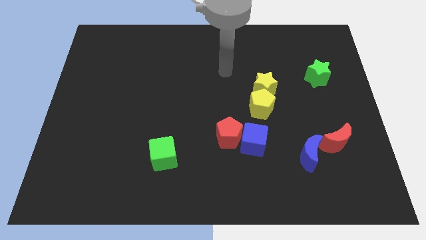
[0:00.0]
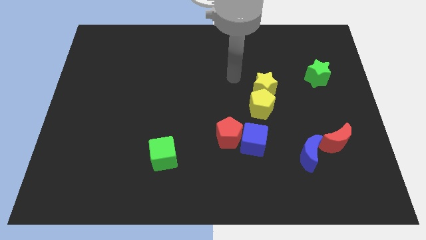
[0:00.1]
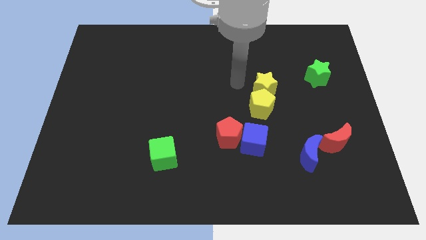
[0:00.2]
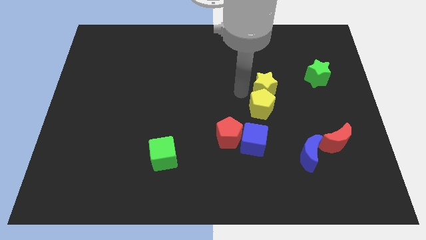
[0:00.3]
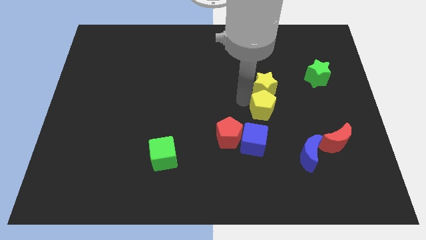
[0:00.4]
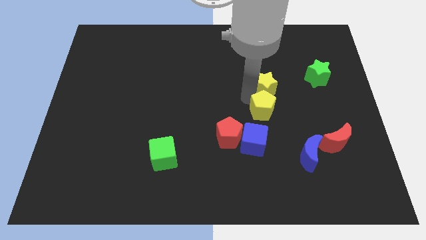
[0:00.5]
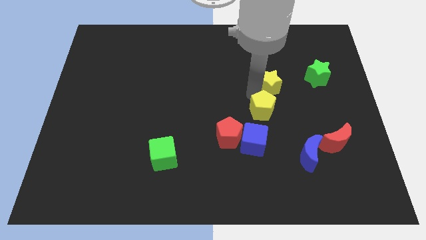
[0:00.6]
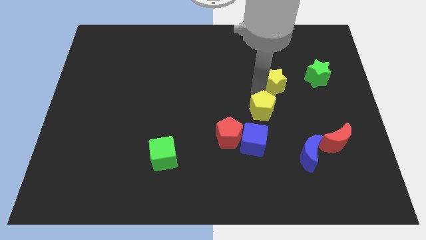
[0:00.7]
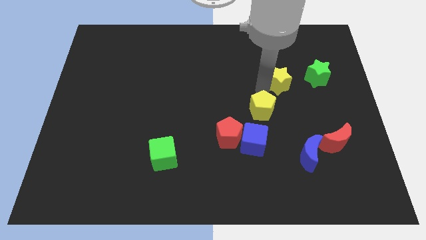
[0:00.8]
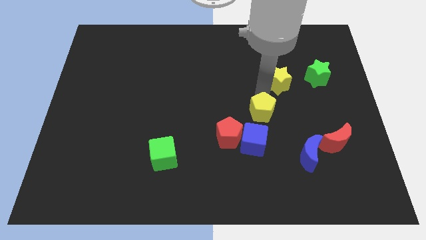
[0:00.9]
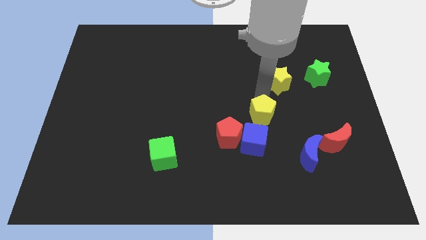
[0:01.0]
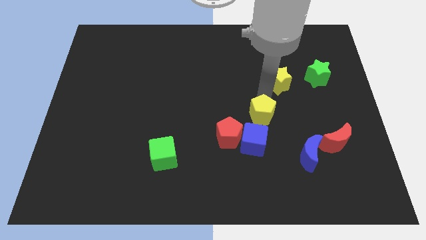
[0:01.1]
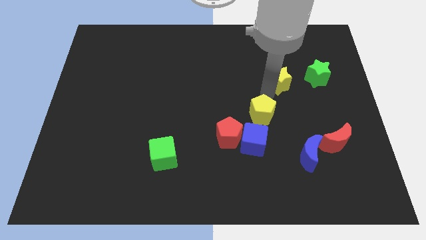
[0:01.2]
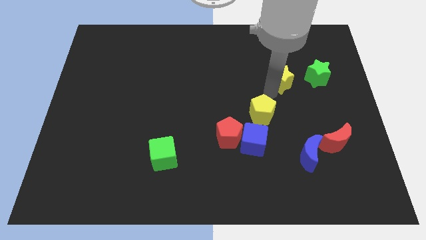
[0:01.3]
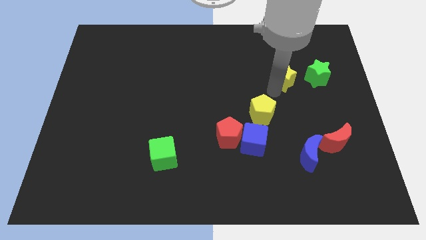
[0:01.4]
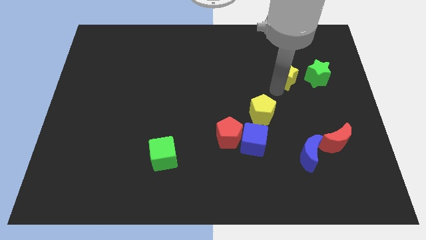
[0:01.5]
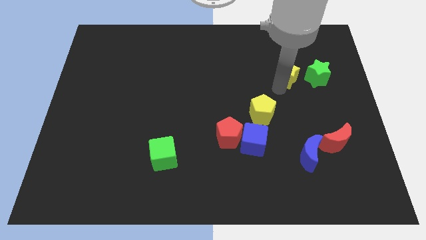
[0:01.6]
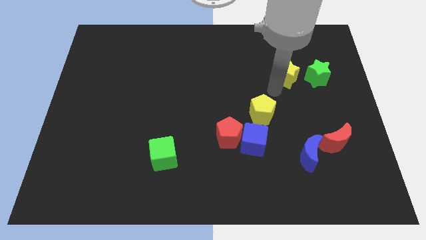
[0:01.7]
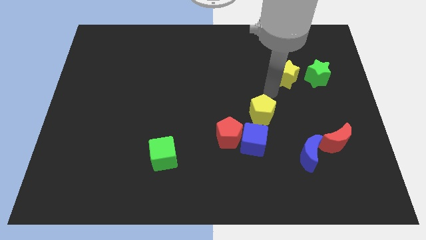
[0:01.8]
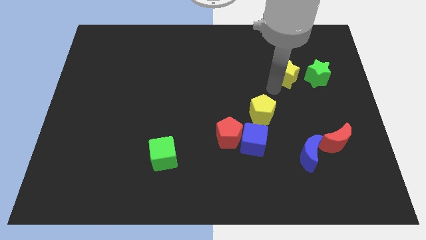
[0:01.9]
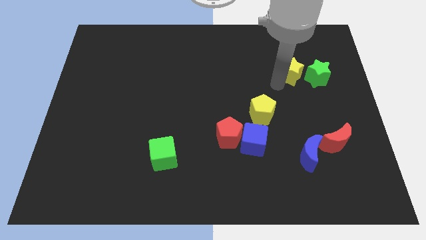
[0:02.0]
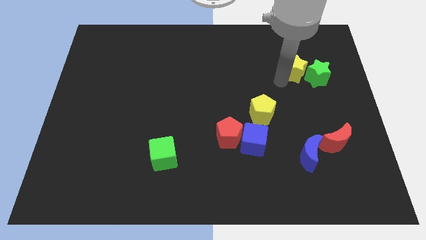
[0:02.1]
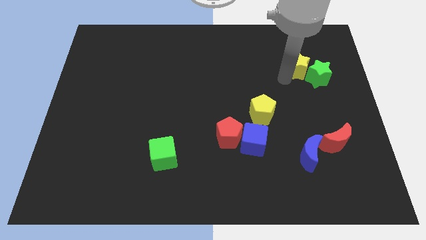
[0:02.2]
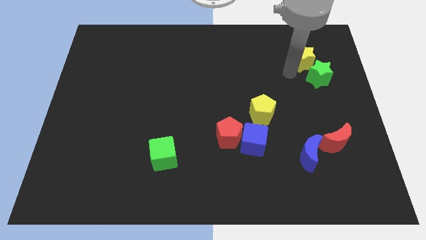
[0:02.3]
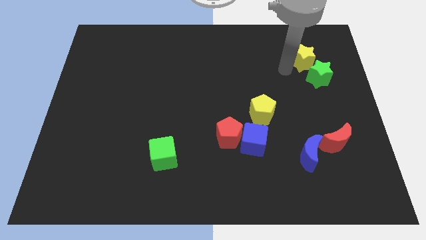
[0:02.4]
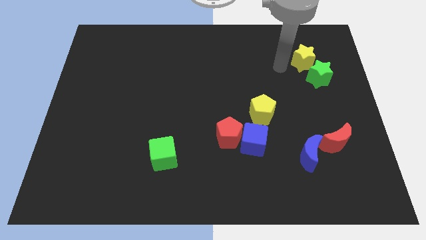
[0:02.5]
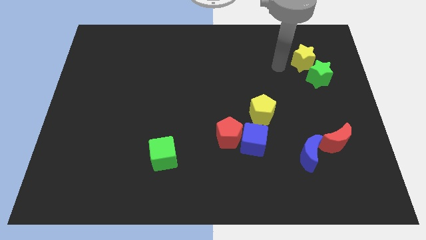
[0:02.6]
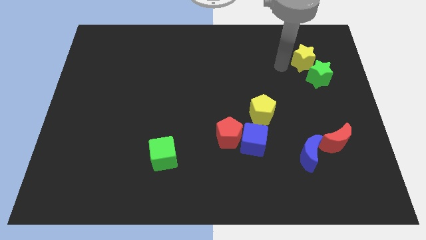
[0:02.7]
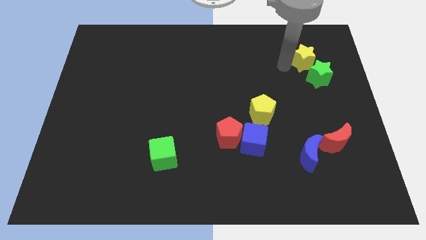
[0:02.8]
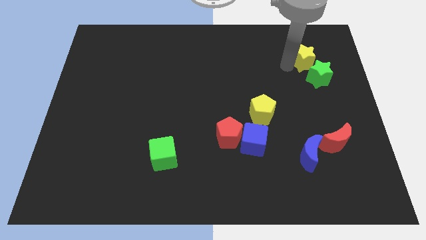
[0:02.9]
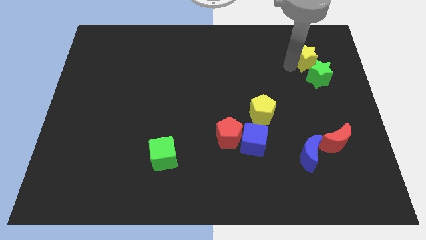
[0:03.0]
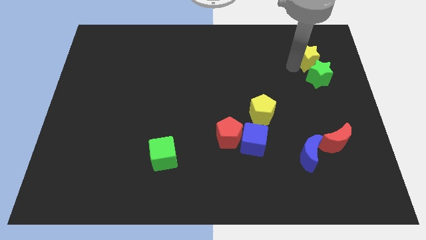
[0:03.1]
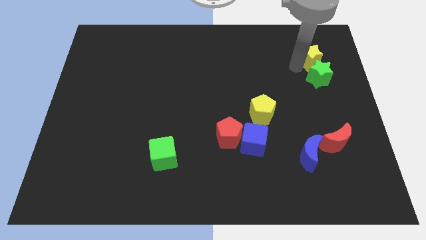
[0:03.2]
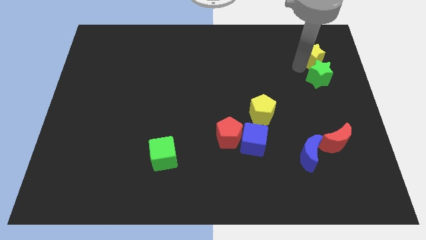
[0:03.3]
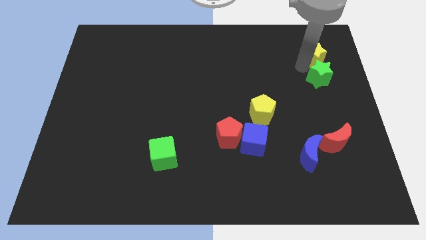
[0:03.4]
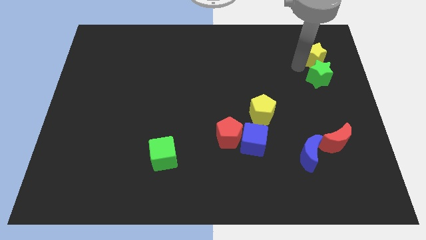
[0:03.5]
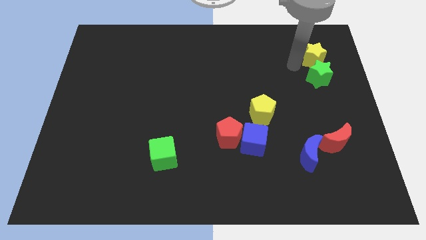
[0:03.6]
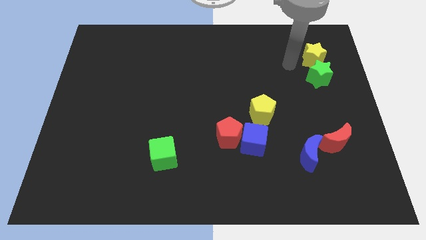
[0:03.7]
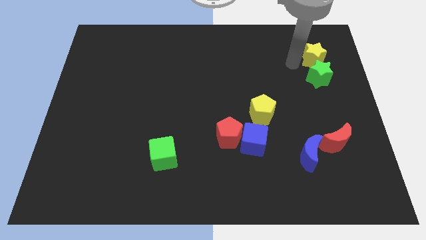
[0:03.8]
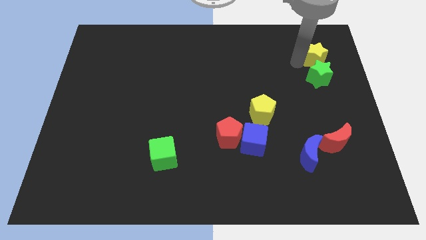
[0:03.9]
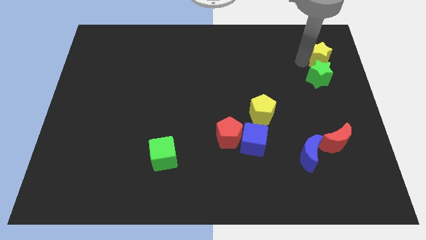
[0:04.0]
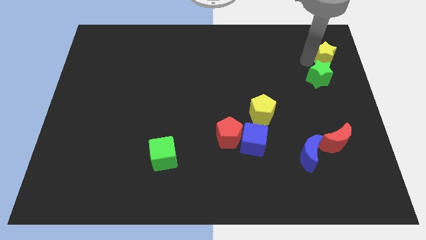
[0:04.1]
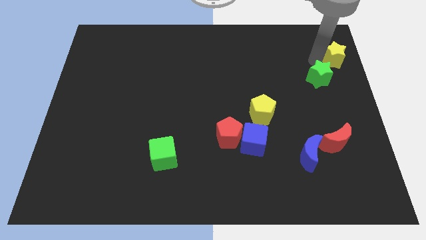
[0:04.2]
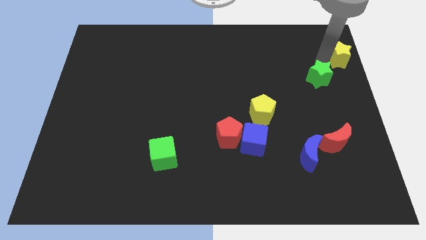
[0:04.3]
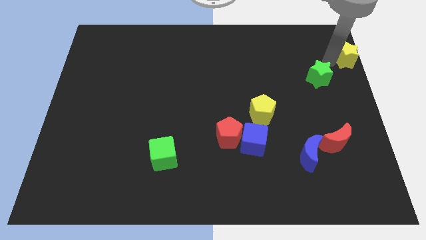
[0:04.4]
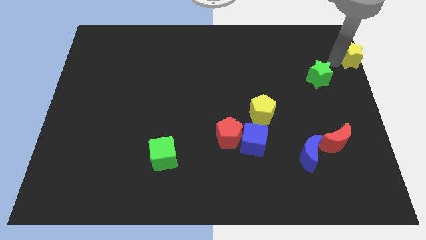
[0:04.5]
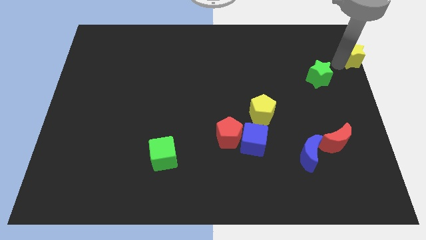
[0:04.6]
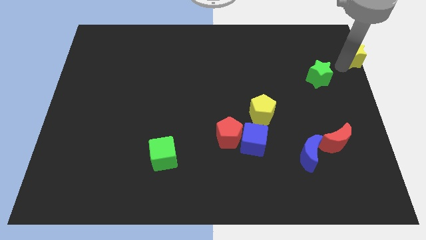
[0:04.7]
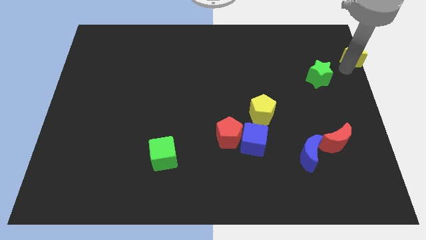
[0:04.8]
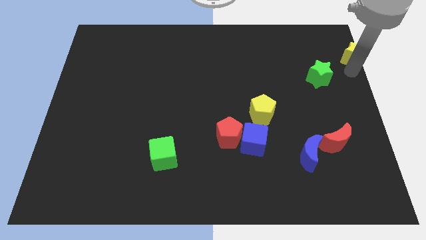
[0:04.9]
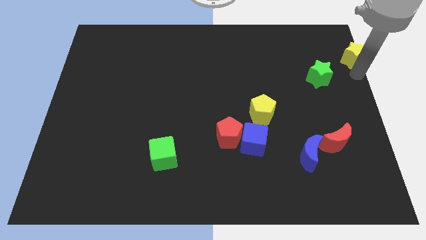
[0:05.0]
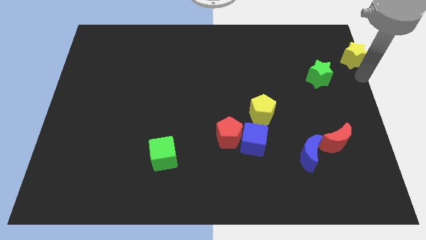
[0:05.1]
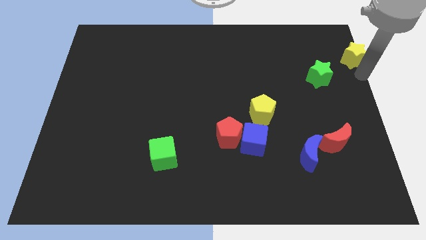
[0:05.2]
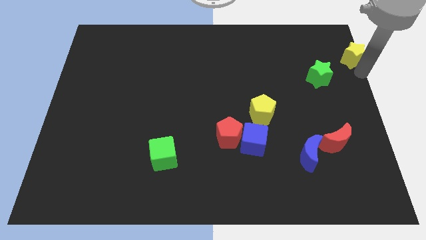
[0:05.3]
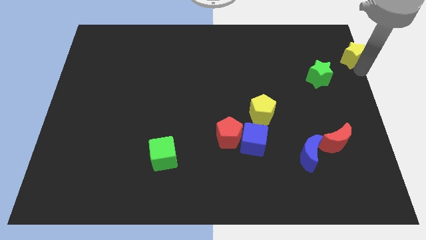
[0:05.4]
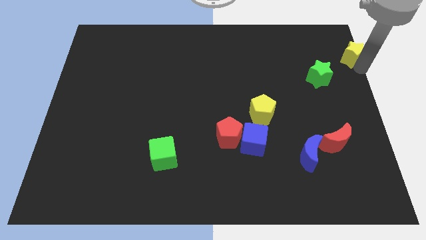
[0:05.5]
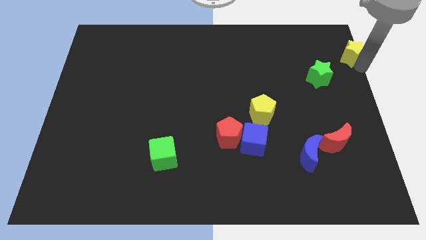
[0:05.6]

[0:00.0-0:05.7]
push the yellow star to the top right

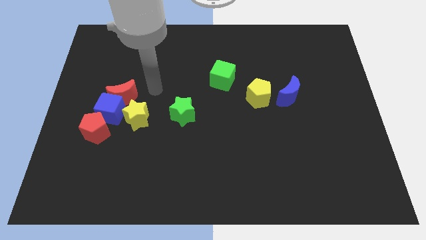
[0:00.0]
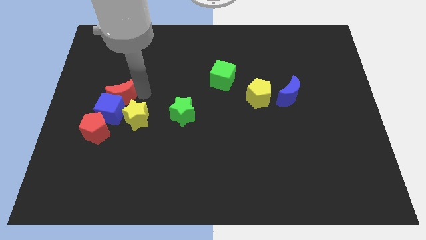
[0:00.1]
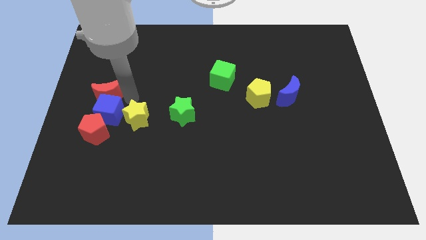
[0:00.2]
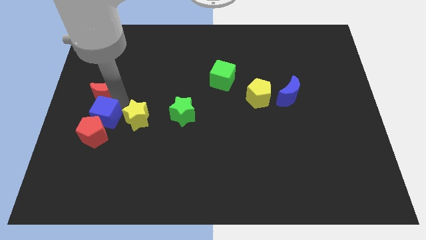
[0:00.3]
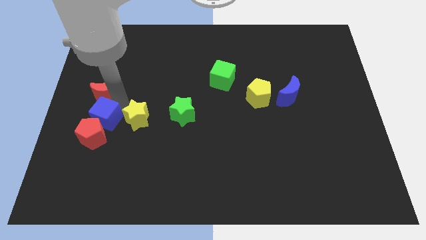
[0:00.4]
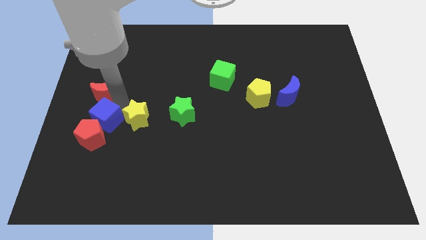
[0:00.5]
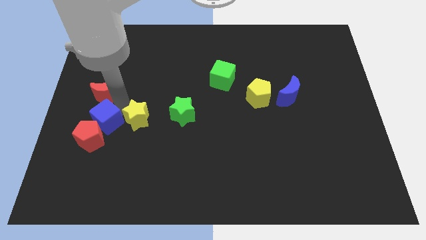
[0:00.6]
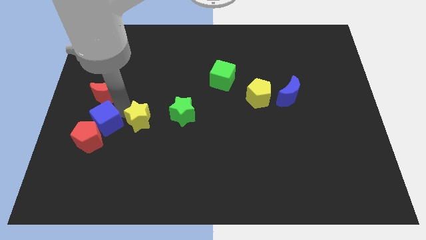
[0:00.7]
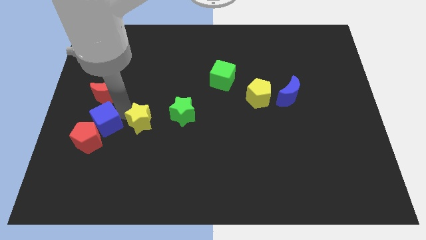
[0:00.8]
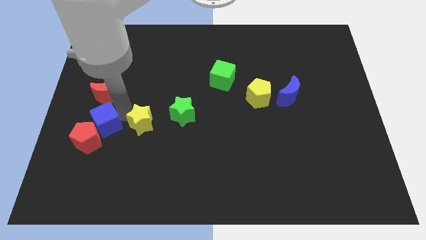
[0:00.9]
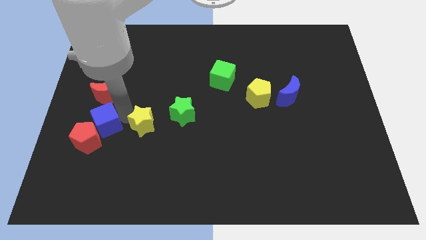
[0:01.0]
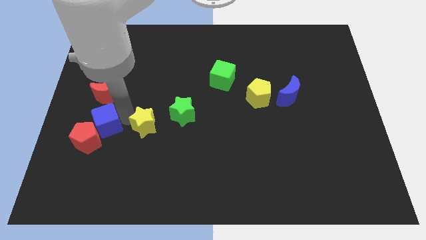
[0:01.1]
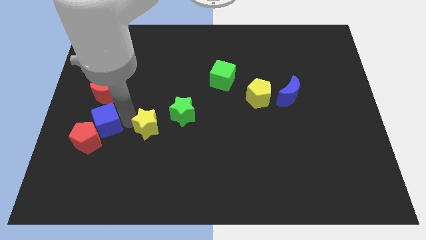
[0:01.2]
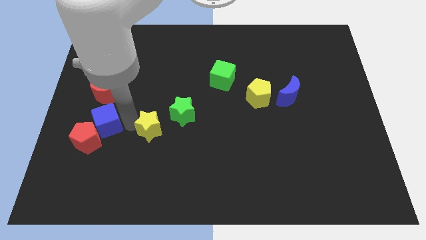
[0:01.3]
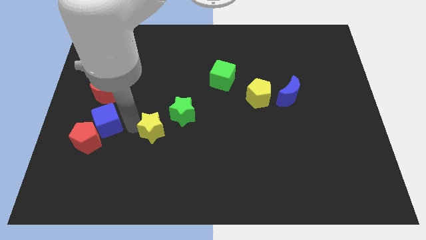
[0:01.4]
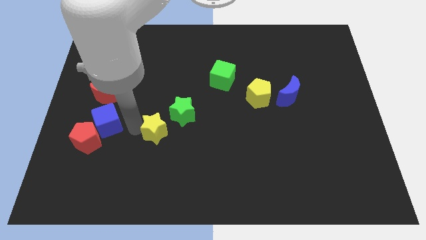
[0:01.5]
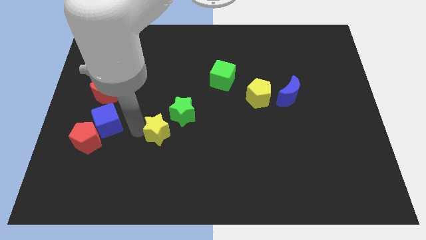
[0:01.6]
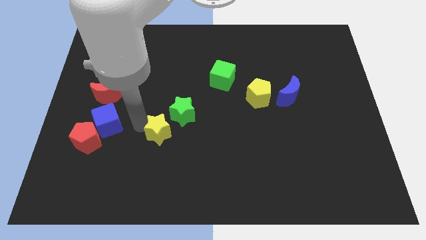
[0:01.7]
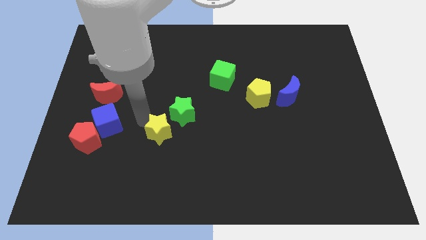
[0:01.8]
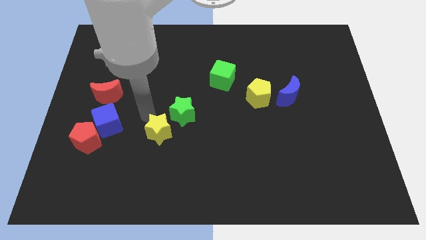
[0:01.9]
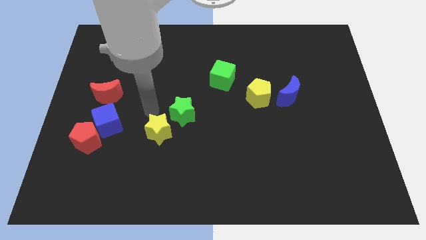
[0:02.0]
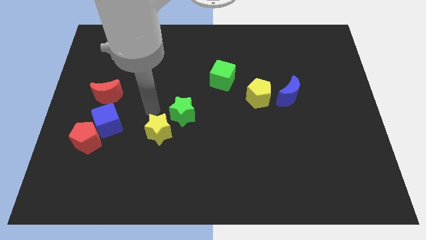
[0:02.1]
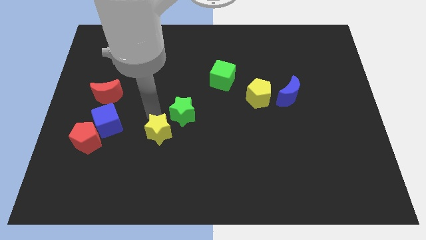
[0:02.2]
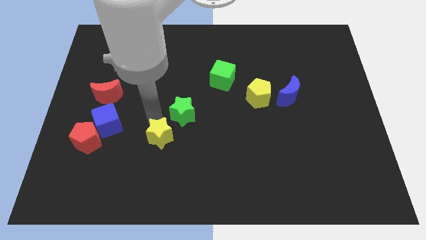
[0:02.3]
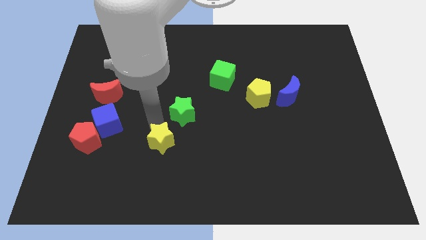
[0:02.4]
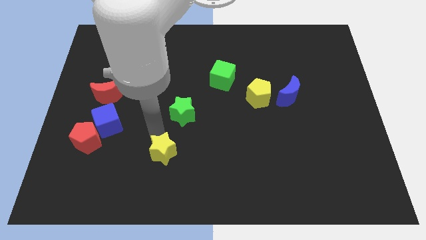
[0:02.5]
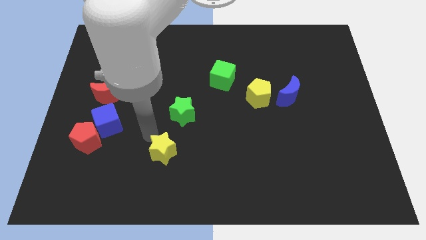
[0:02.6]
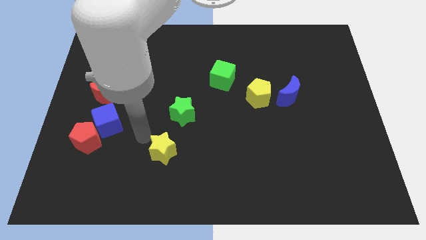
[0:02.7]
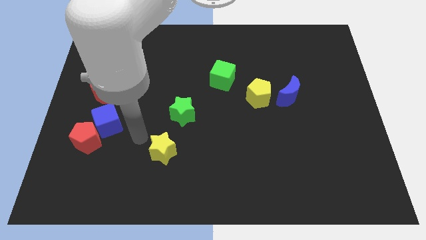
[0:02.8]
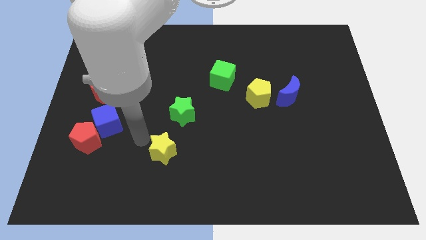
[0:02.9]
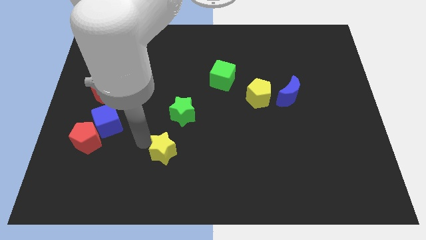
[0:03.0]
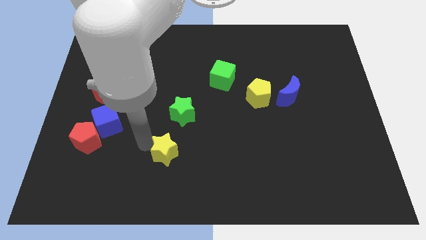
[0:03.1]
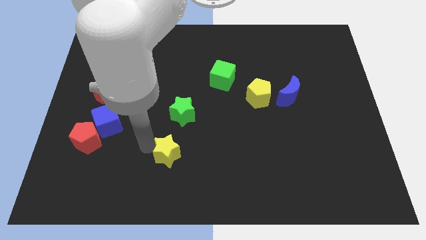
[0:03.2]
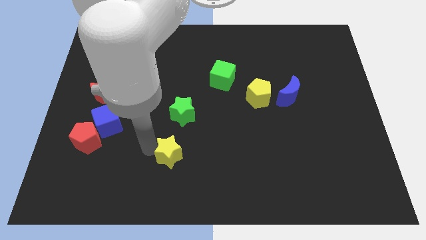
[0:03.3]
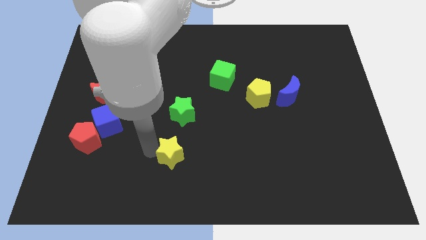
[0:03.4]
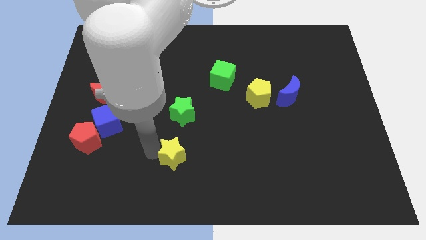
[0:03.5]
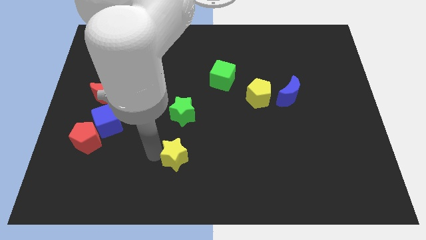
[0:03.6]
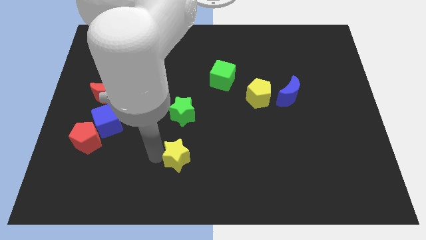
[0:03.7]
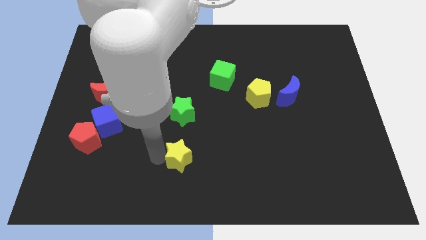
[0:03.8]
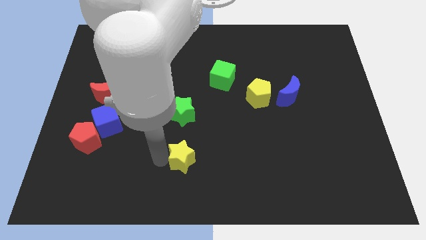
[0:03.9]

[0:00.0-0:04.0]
slide the yellow star to the bottom side
